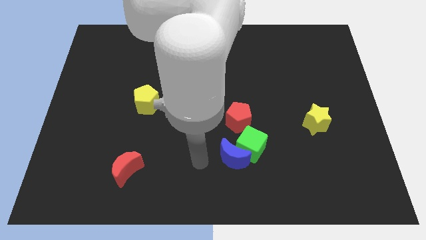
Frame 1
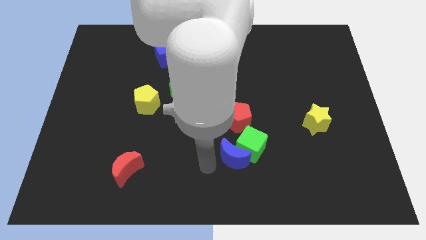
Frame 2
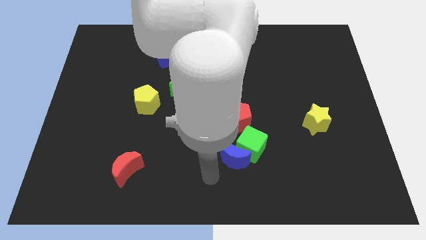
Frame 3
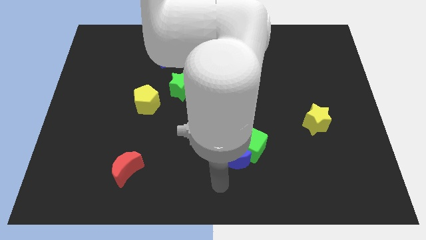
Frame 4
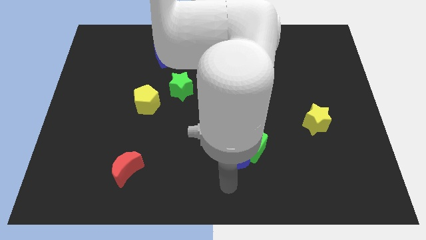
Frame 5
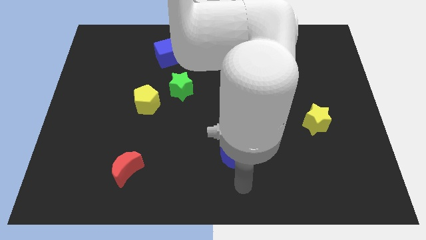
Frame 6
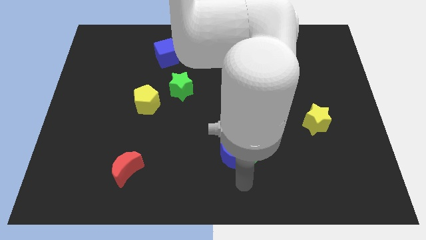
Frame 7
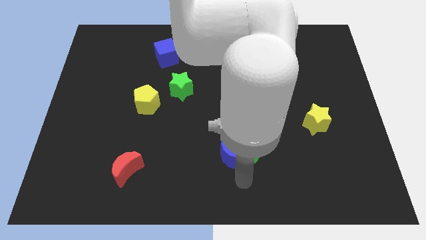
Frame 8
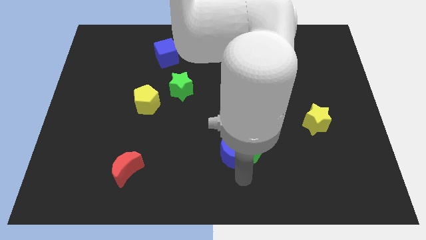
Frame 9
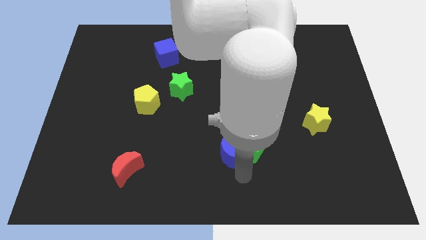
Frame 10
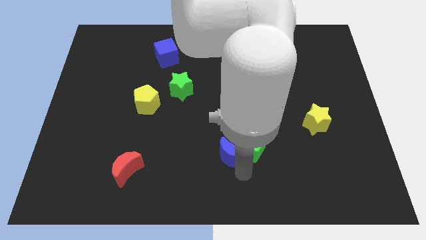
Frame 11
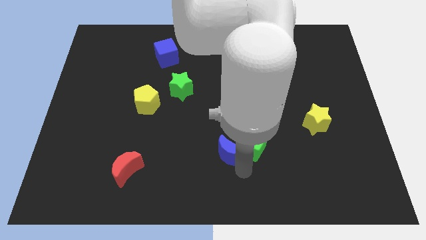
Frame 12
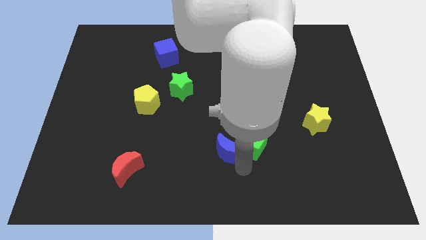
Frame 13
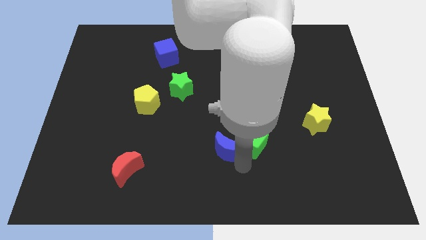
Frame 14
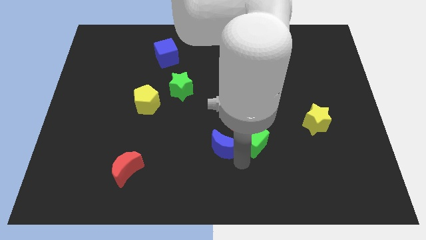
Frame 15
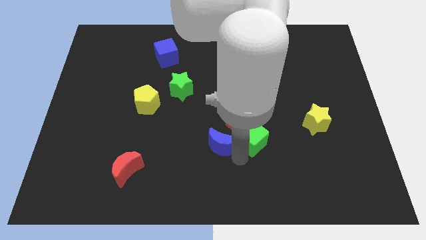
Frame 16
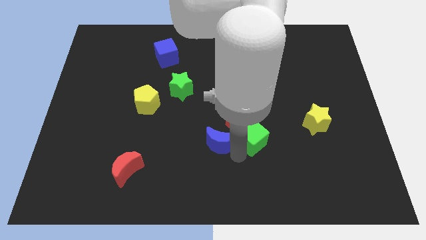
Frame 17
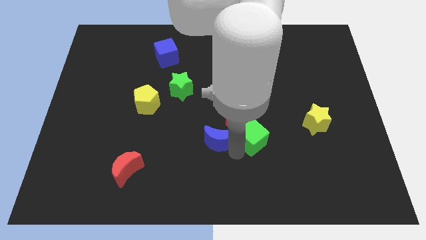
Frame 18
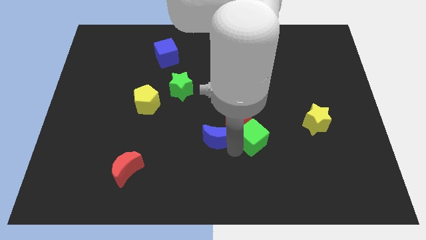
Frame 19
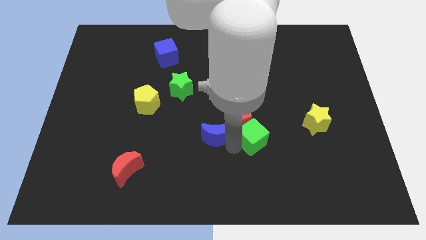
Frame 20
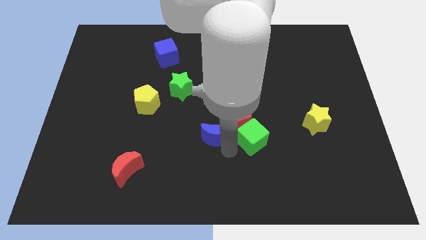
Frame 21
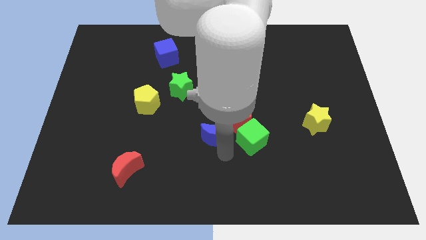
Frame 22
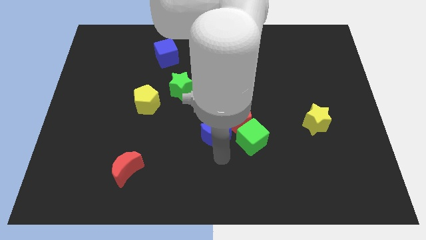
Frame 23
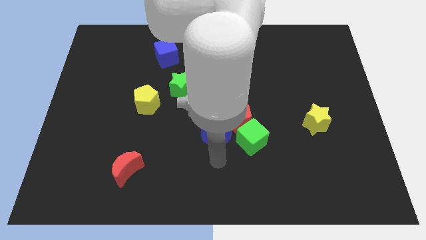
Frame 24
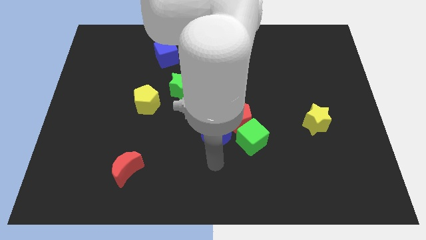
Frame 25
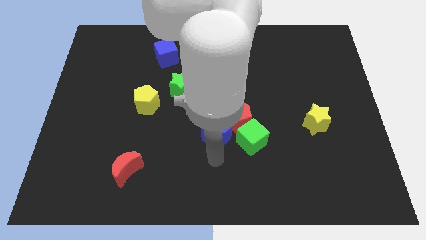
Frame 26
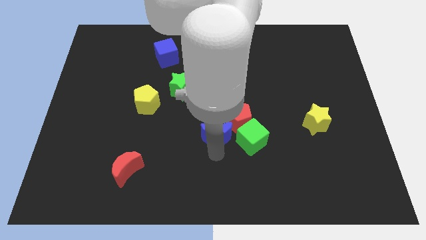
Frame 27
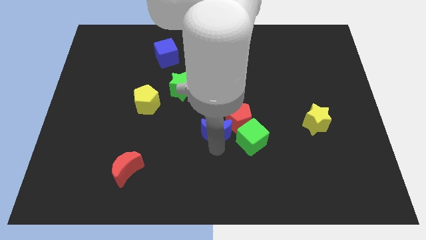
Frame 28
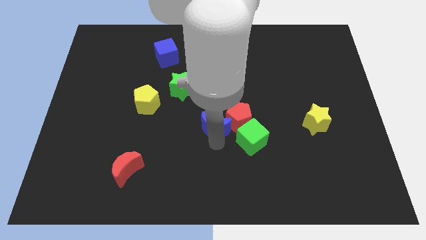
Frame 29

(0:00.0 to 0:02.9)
slightly slide the blue moon upwards

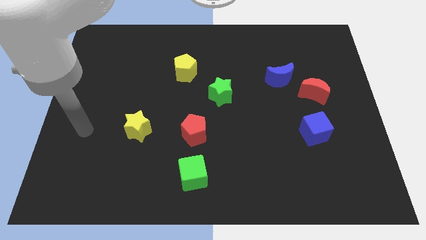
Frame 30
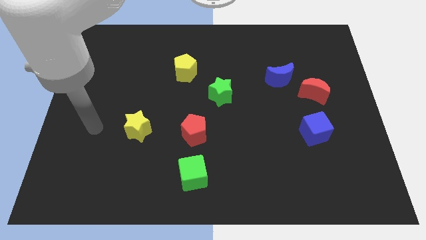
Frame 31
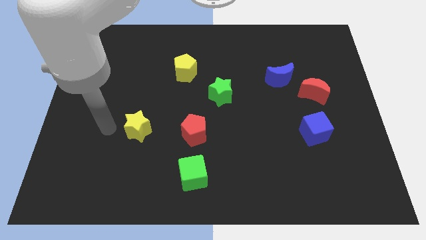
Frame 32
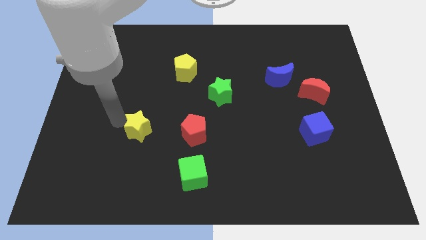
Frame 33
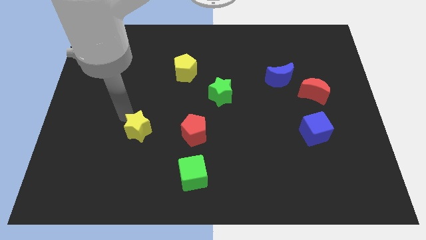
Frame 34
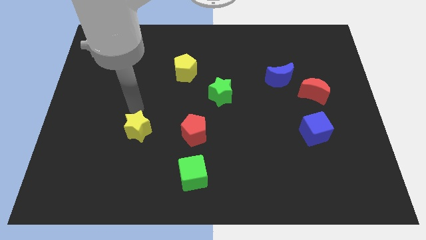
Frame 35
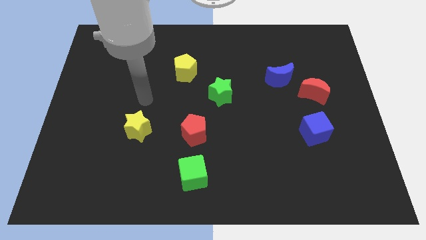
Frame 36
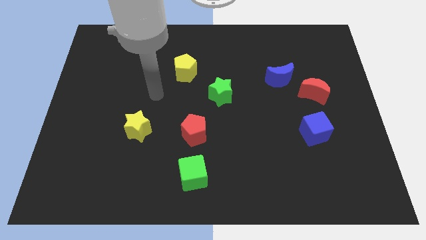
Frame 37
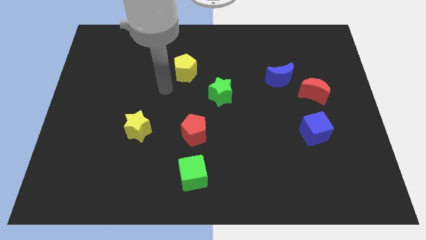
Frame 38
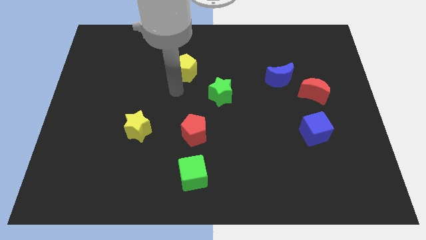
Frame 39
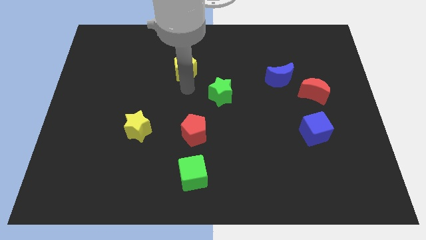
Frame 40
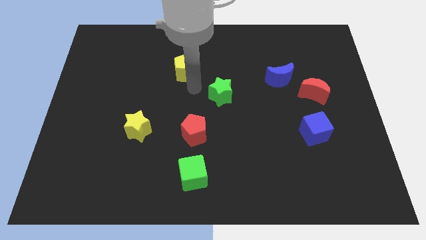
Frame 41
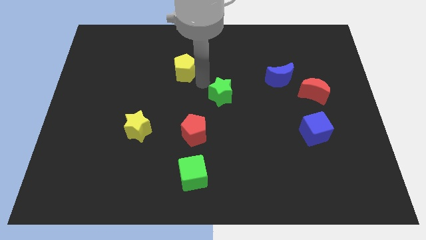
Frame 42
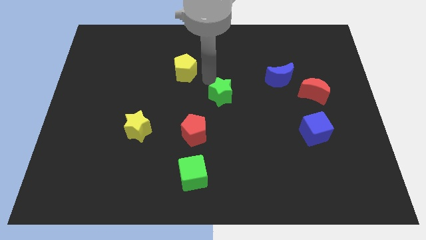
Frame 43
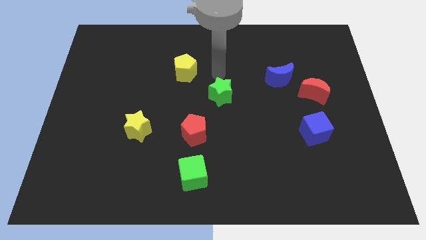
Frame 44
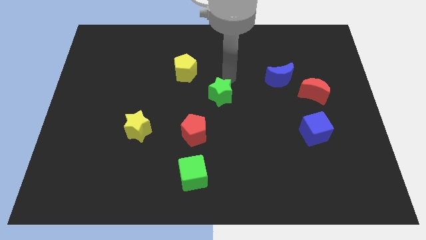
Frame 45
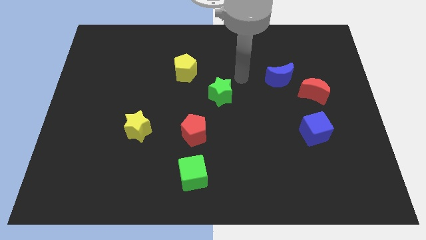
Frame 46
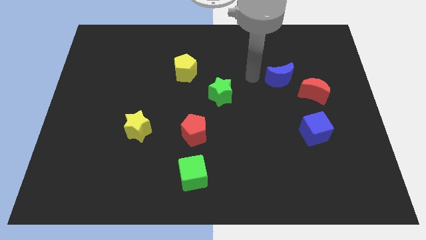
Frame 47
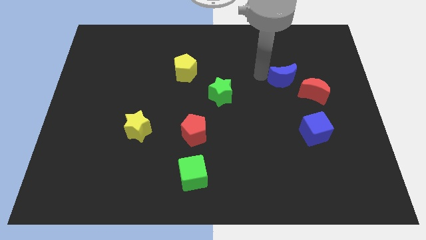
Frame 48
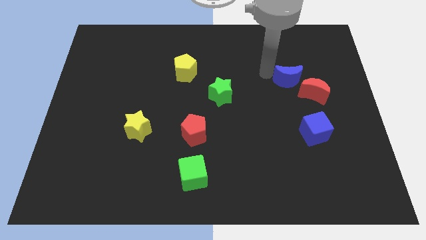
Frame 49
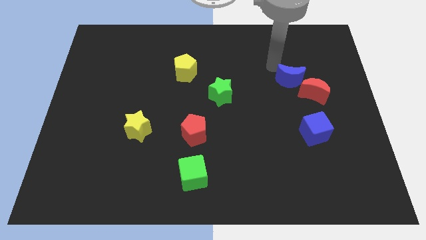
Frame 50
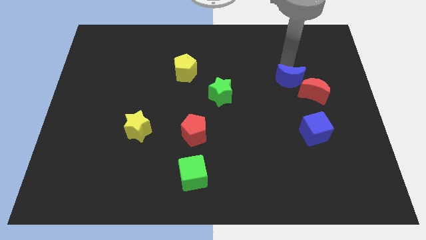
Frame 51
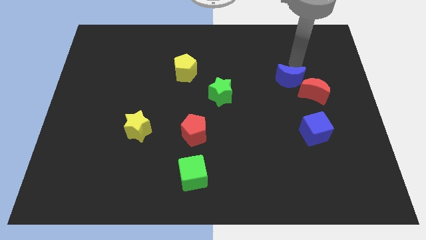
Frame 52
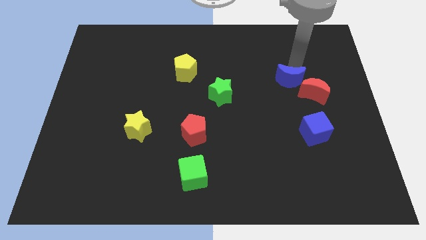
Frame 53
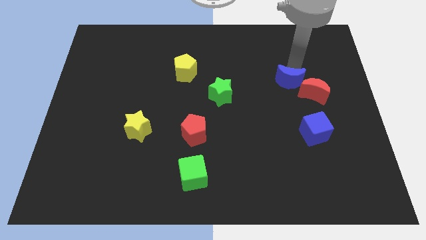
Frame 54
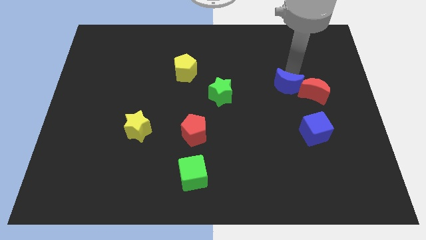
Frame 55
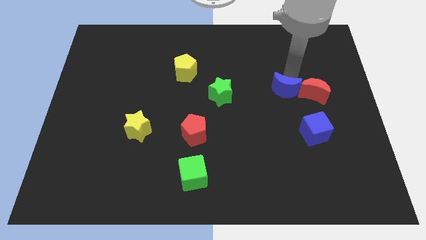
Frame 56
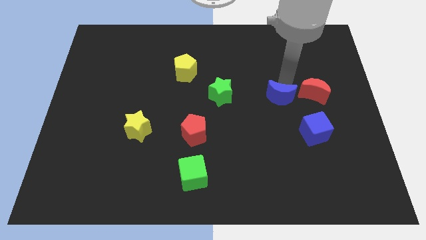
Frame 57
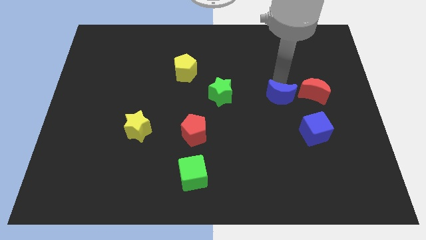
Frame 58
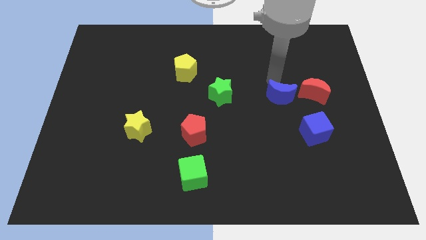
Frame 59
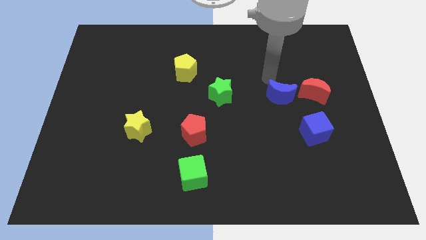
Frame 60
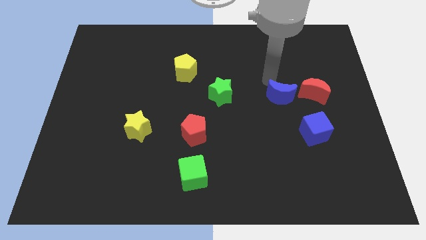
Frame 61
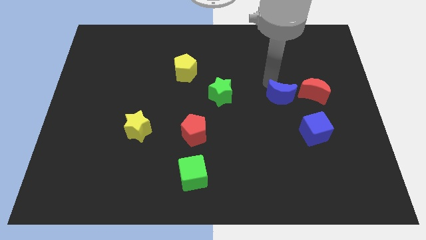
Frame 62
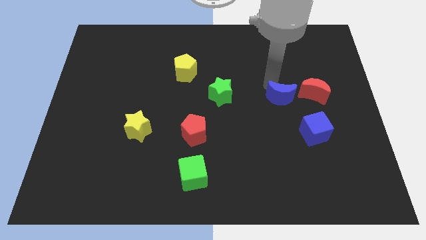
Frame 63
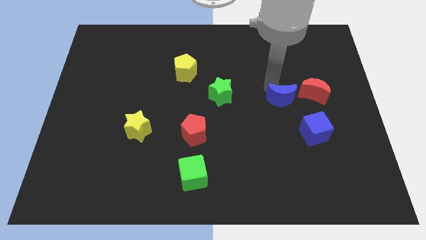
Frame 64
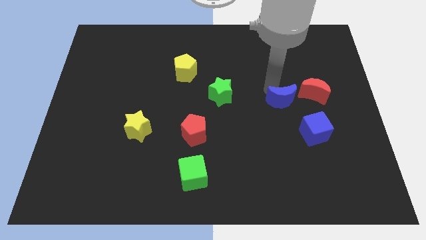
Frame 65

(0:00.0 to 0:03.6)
push the blue moon down a bit

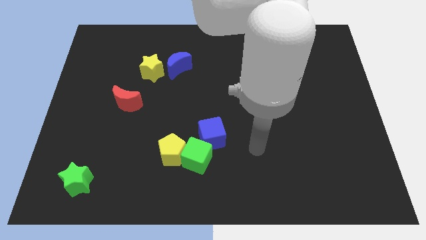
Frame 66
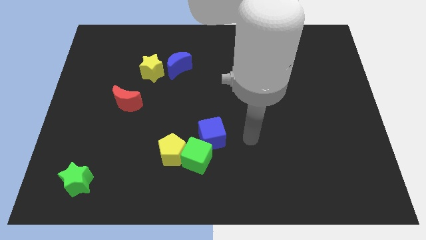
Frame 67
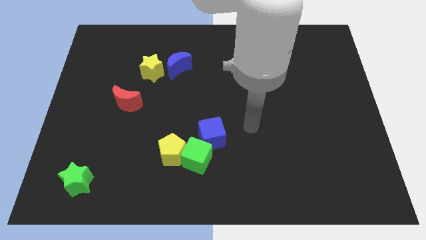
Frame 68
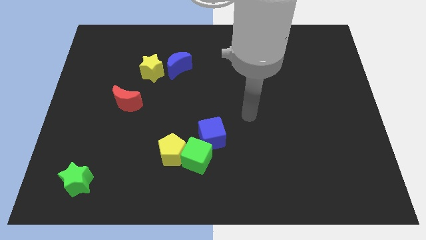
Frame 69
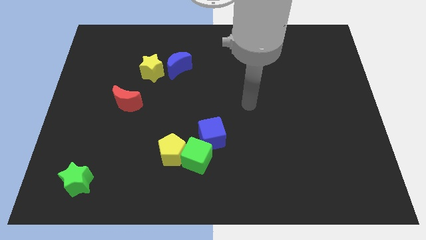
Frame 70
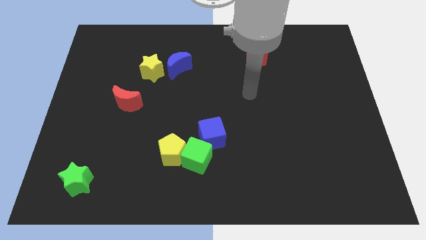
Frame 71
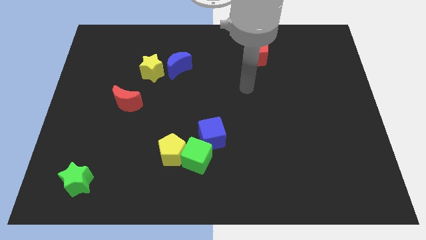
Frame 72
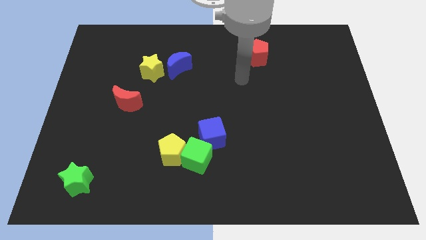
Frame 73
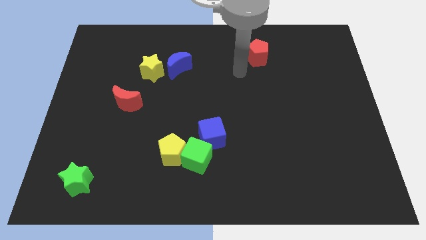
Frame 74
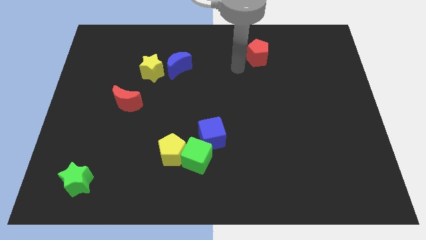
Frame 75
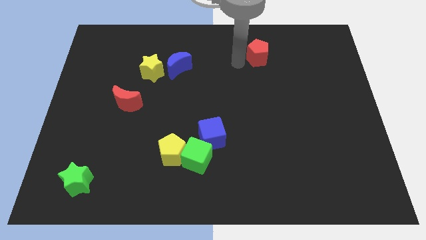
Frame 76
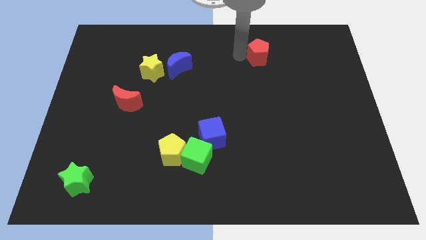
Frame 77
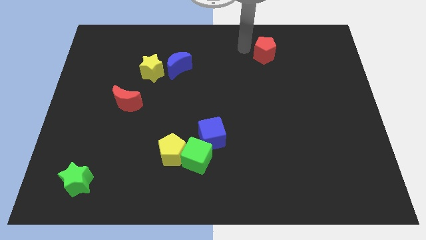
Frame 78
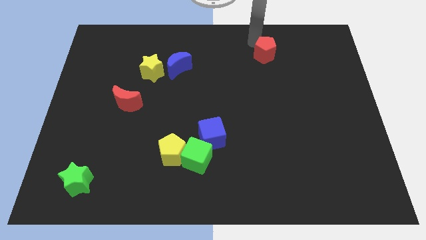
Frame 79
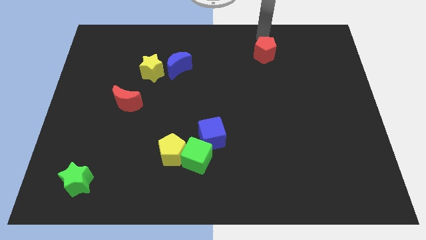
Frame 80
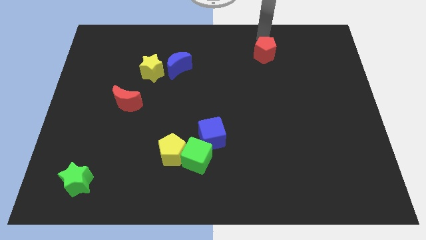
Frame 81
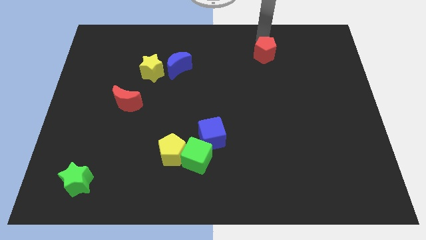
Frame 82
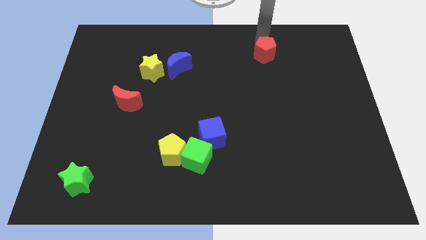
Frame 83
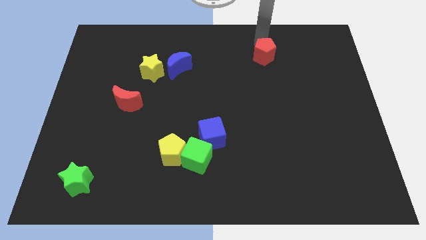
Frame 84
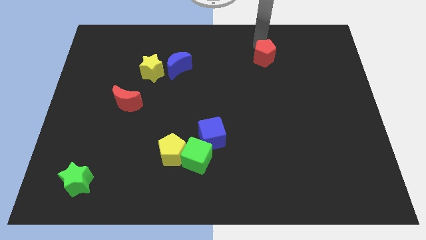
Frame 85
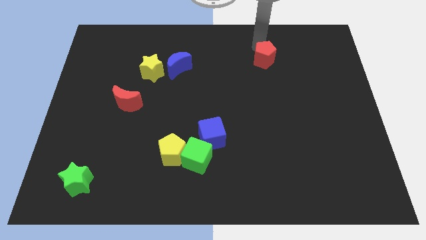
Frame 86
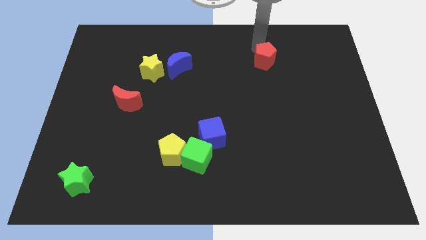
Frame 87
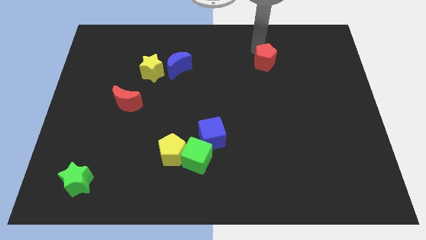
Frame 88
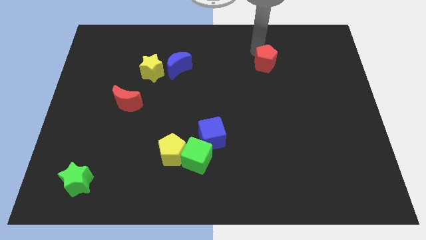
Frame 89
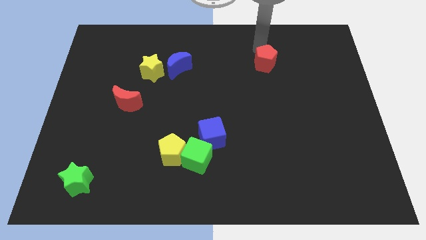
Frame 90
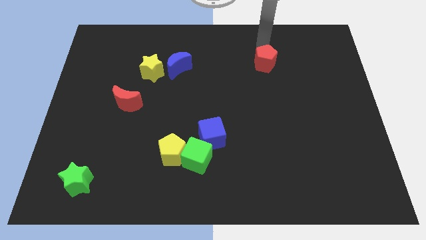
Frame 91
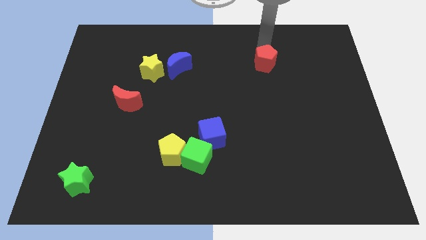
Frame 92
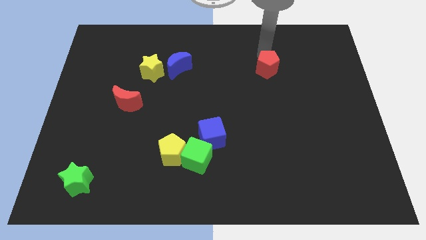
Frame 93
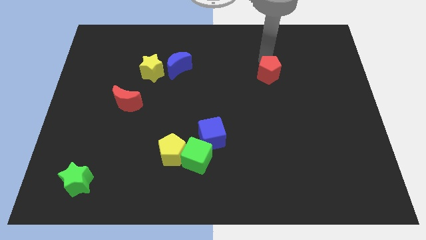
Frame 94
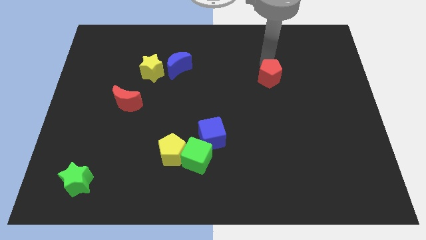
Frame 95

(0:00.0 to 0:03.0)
move the red pentagon a bit down
